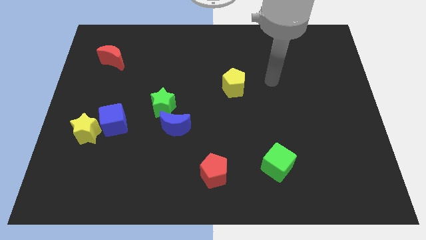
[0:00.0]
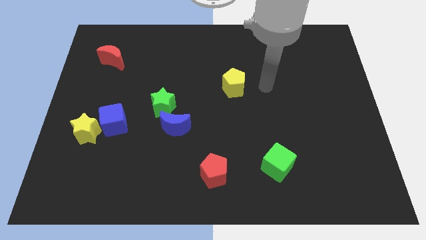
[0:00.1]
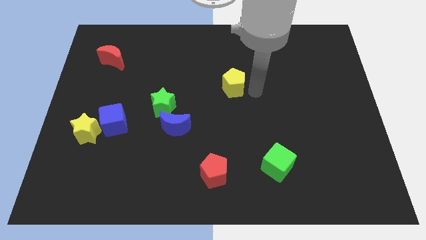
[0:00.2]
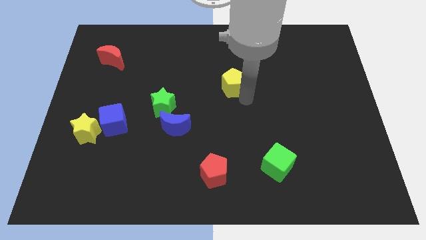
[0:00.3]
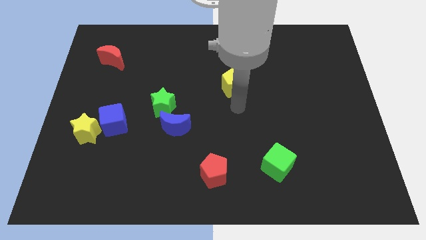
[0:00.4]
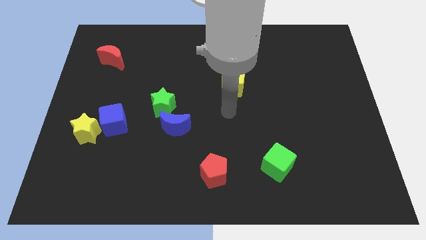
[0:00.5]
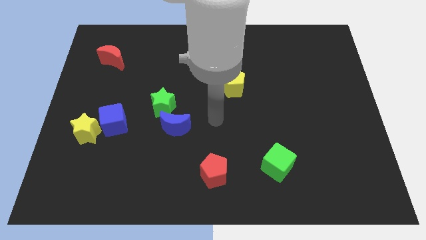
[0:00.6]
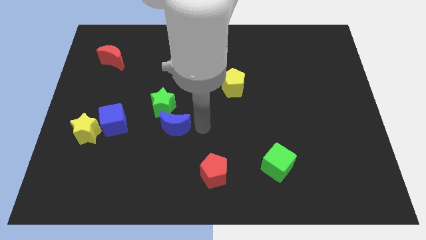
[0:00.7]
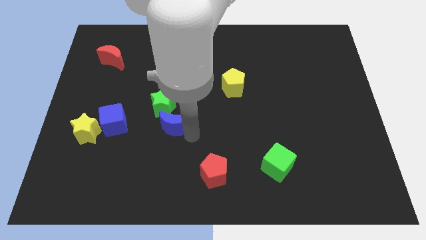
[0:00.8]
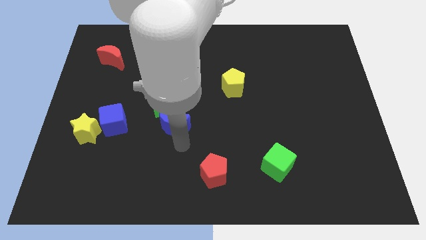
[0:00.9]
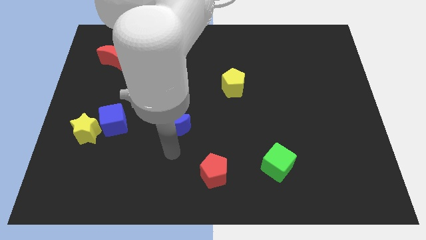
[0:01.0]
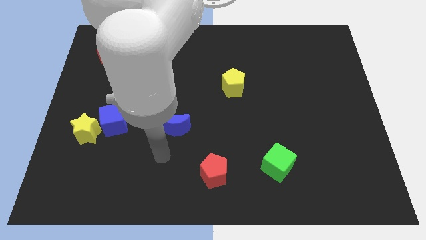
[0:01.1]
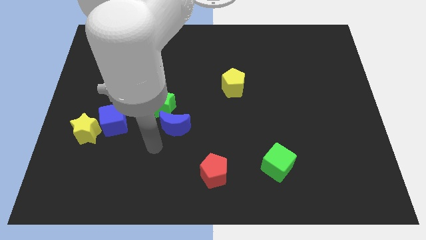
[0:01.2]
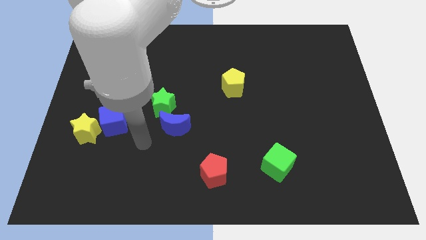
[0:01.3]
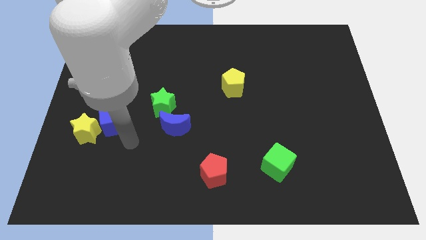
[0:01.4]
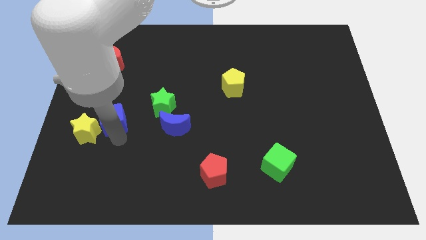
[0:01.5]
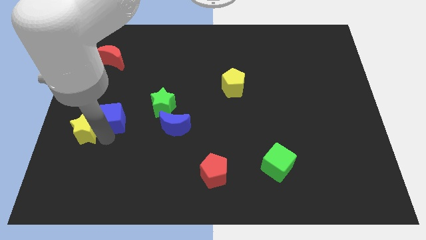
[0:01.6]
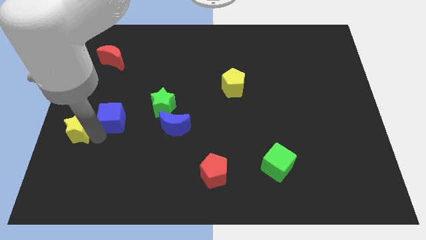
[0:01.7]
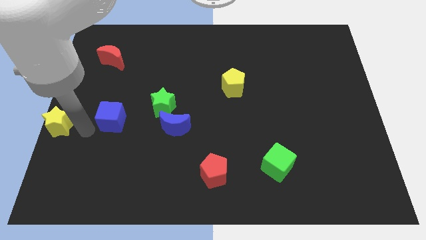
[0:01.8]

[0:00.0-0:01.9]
pull the blue cube apart from the yellow star

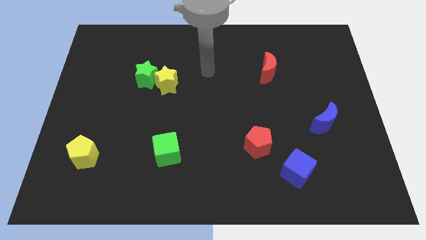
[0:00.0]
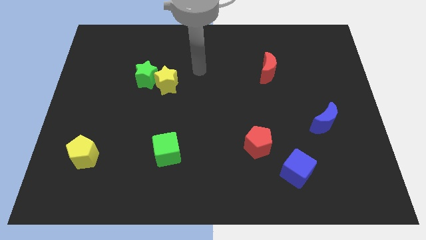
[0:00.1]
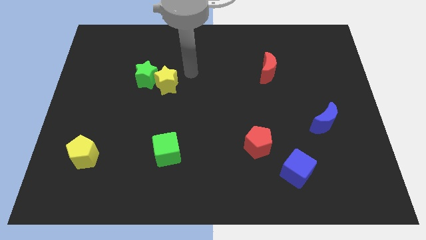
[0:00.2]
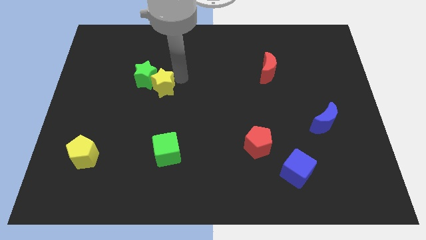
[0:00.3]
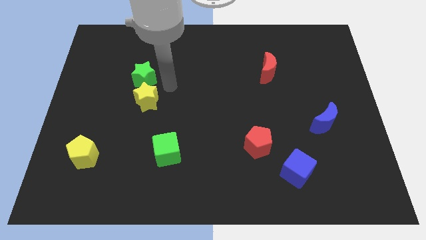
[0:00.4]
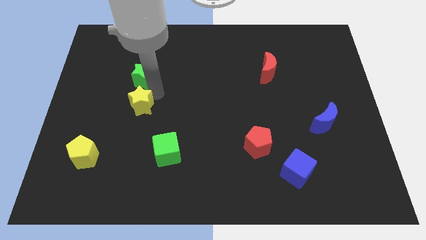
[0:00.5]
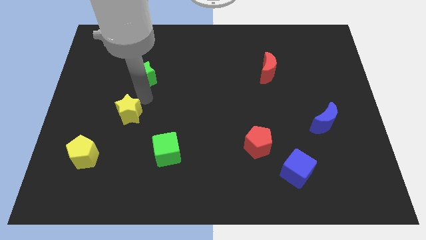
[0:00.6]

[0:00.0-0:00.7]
separate the green star from the yellow star

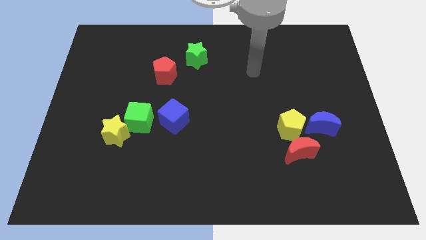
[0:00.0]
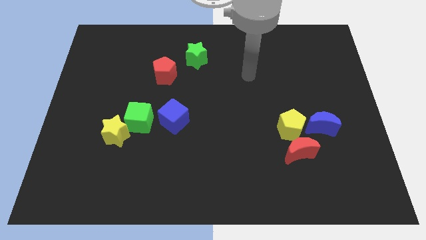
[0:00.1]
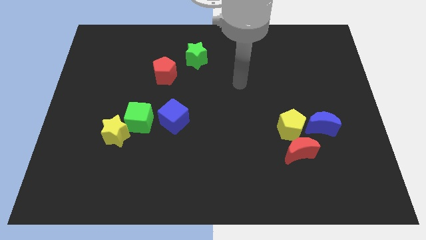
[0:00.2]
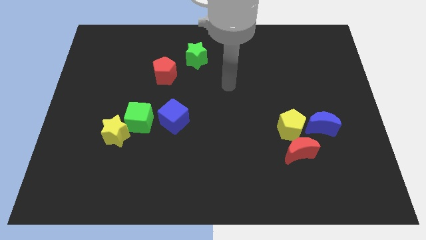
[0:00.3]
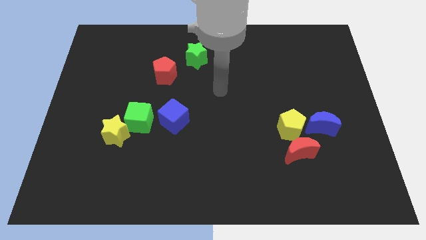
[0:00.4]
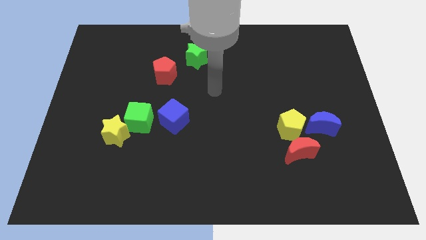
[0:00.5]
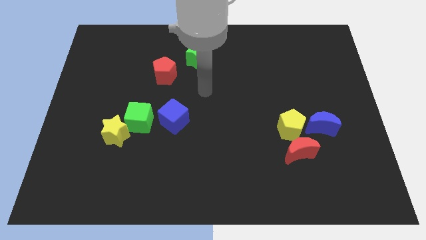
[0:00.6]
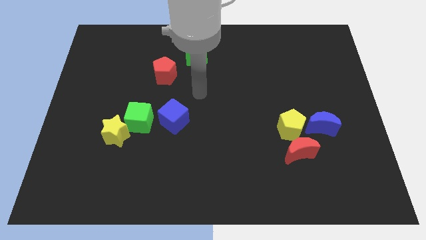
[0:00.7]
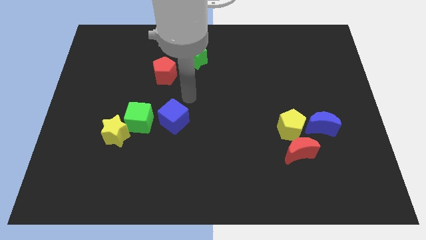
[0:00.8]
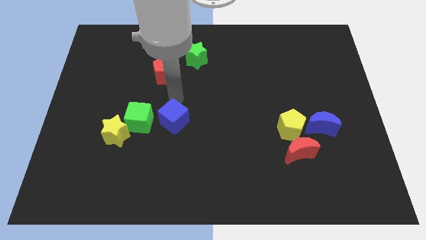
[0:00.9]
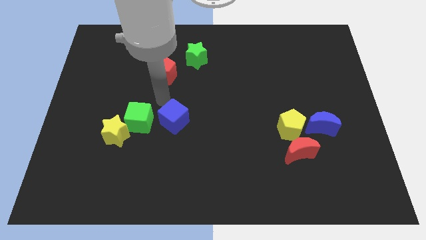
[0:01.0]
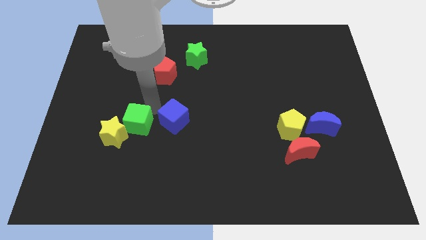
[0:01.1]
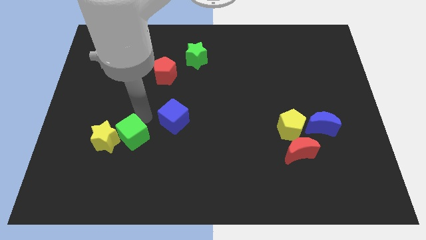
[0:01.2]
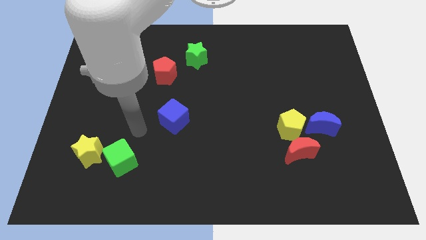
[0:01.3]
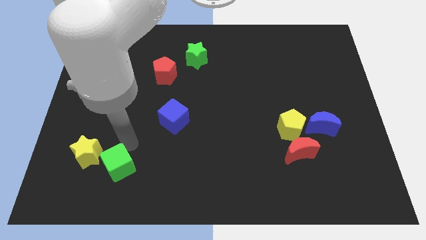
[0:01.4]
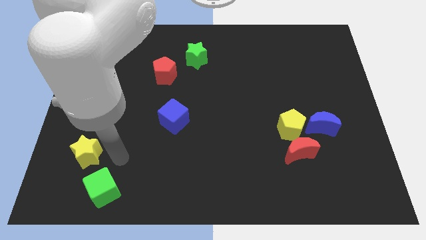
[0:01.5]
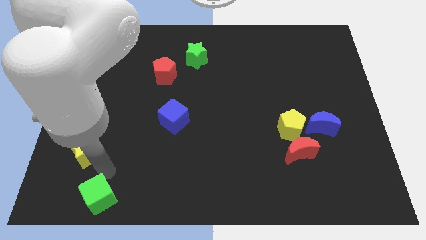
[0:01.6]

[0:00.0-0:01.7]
pull the yellow star apart from the green cube

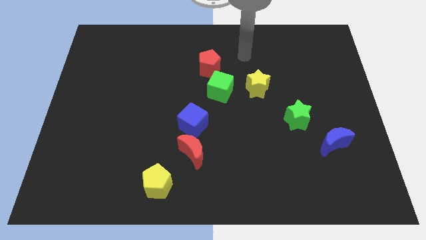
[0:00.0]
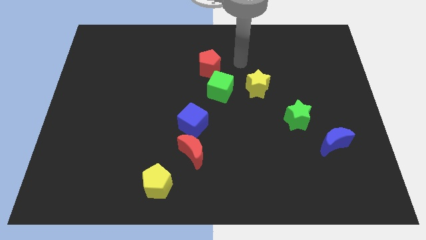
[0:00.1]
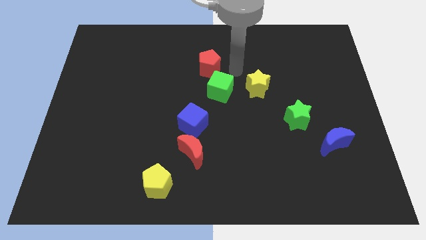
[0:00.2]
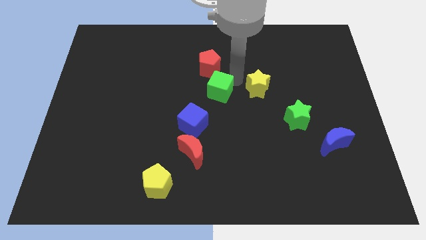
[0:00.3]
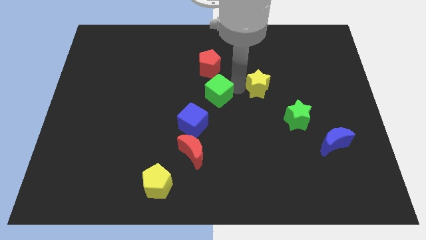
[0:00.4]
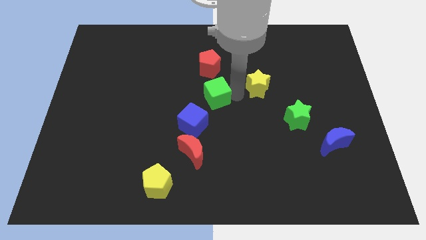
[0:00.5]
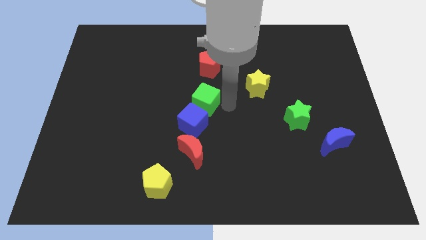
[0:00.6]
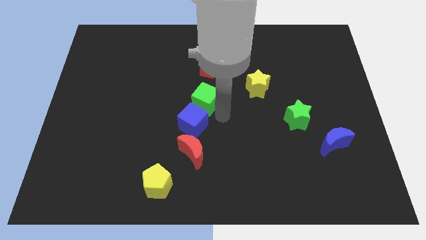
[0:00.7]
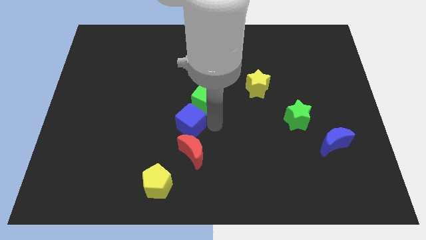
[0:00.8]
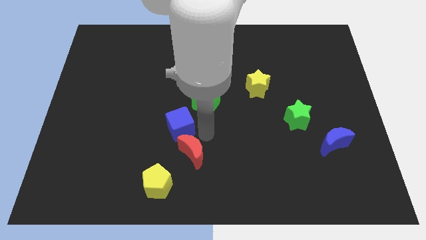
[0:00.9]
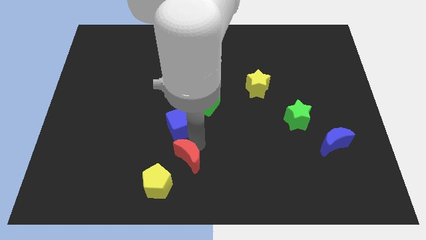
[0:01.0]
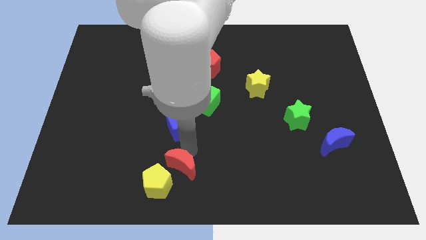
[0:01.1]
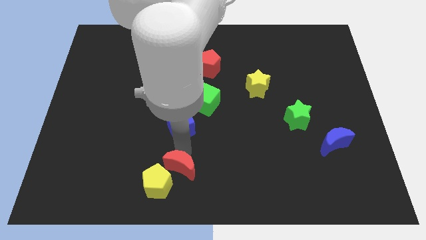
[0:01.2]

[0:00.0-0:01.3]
pull the blue cube apart from the red moon

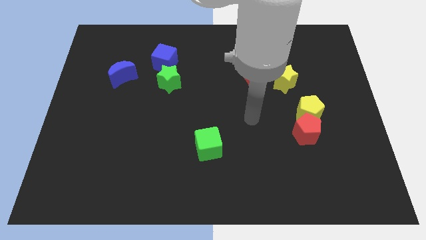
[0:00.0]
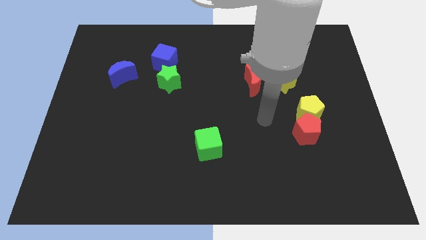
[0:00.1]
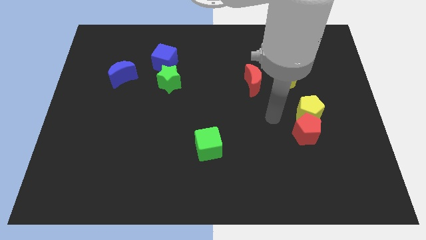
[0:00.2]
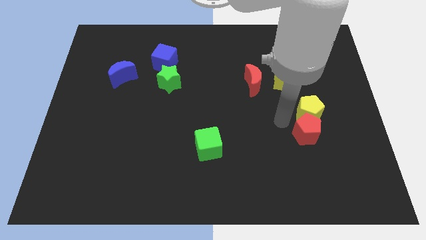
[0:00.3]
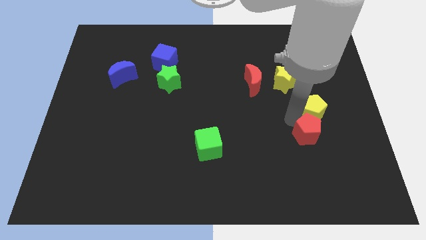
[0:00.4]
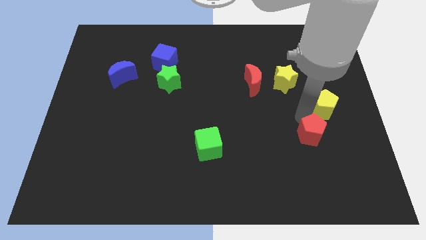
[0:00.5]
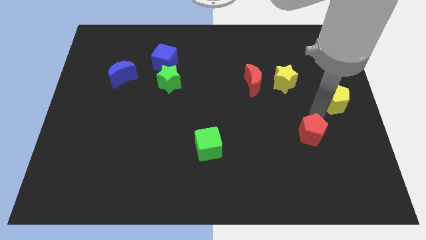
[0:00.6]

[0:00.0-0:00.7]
separate the red pentagon from the yellow pentagon

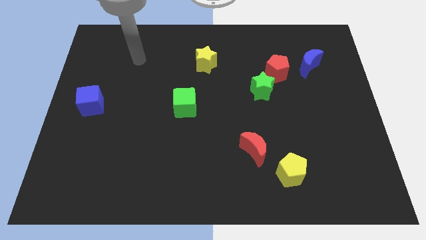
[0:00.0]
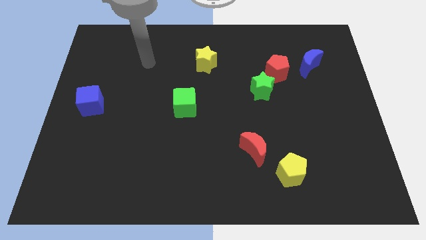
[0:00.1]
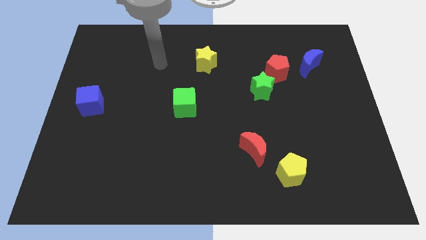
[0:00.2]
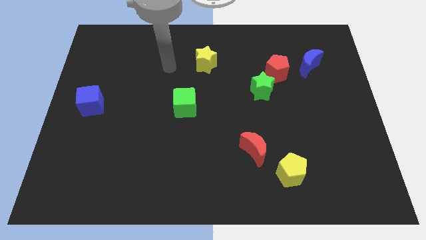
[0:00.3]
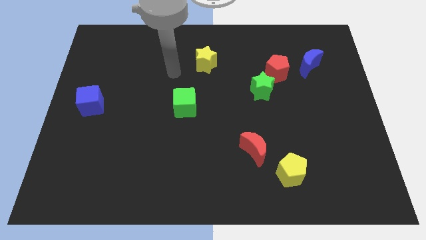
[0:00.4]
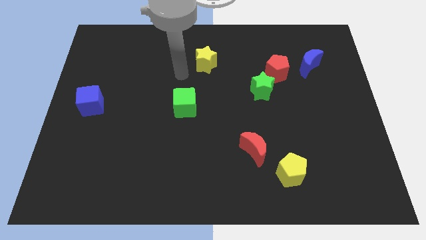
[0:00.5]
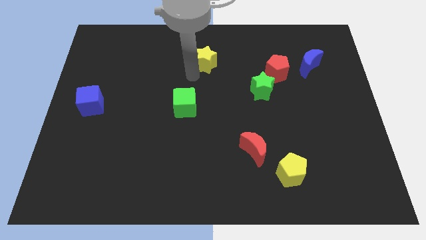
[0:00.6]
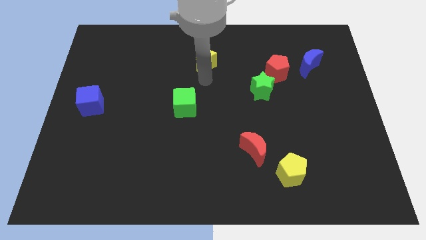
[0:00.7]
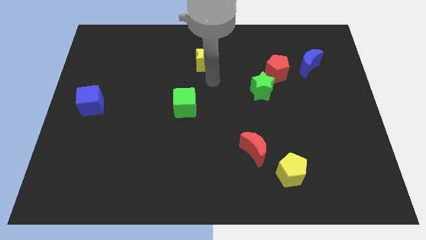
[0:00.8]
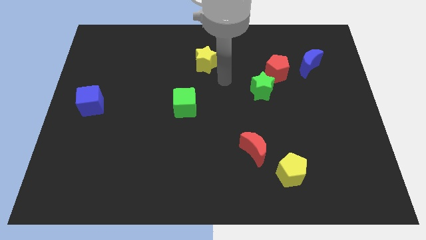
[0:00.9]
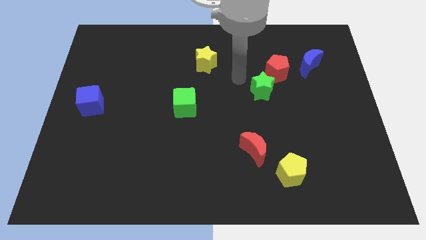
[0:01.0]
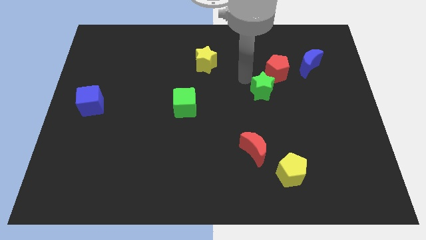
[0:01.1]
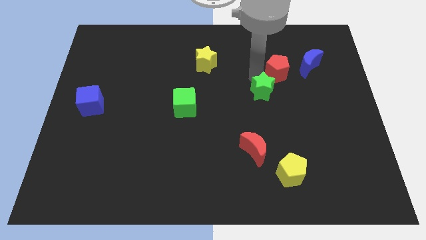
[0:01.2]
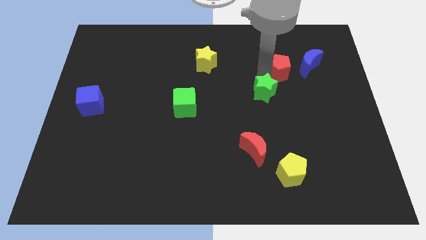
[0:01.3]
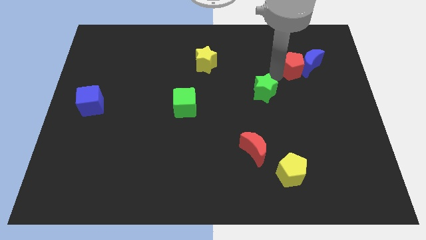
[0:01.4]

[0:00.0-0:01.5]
pull the green star apart from the red pentagon

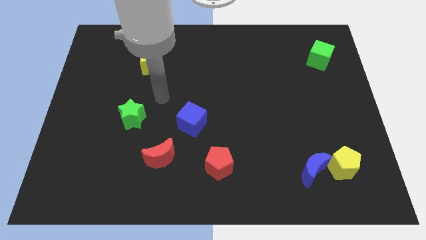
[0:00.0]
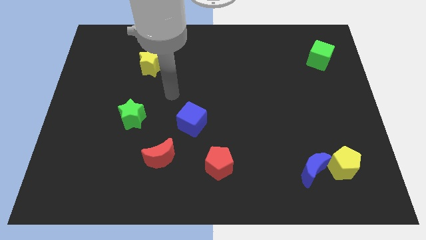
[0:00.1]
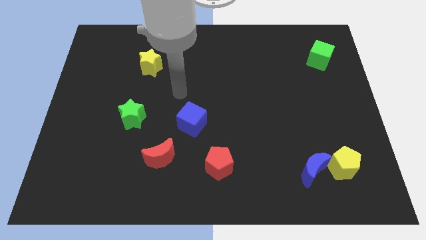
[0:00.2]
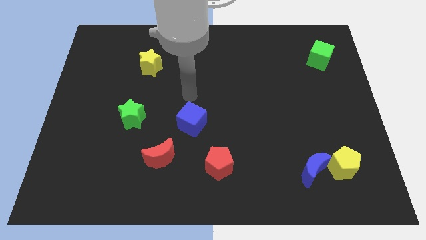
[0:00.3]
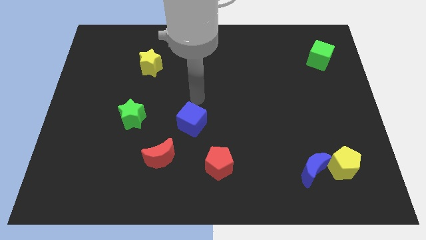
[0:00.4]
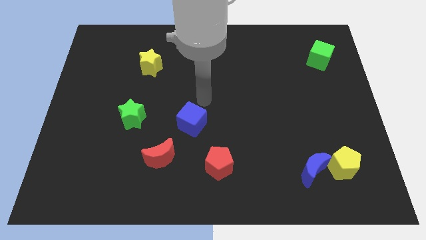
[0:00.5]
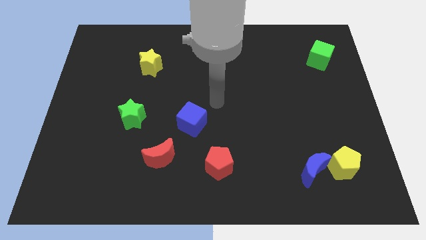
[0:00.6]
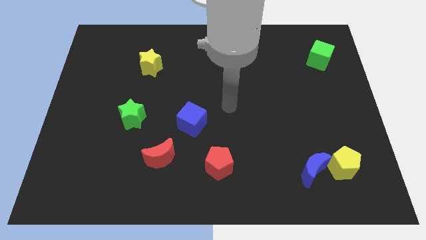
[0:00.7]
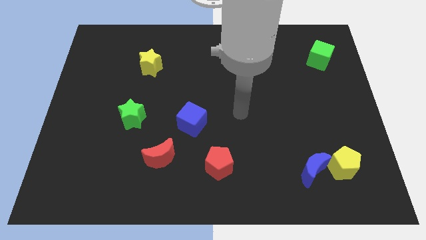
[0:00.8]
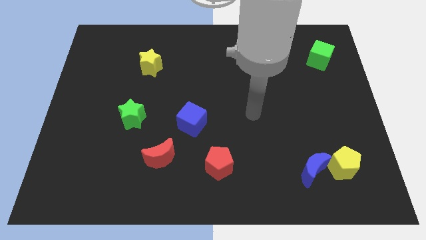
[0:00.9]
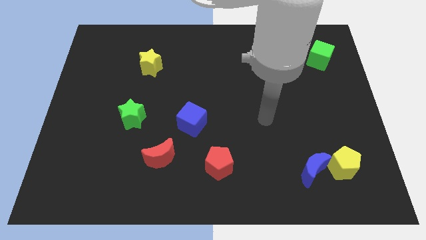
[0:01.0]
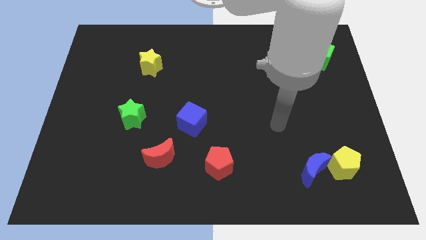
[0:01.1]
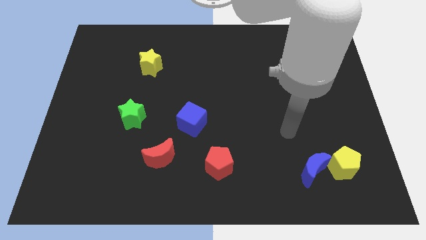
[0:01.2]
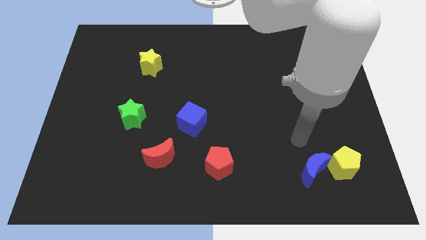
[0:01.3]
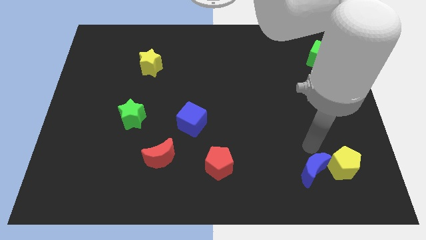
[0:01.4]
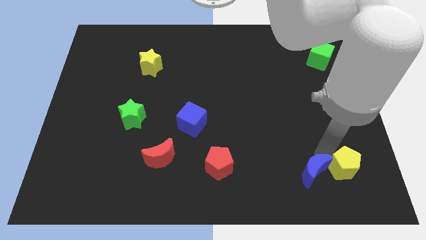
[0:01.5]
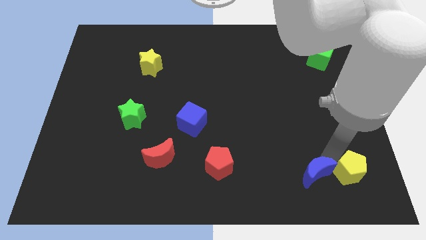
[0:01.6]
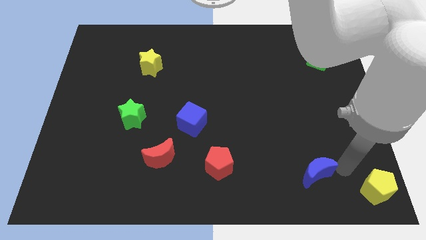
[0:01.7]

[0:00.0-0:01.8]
pull the blue moon apart from the yellow pentagon
